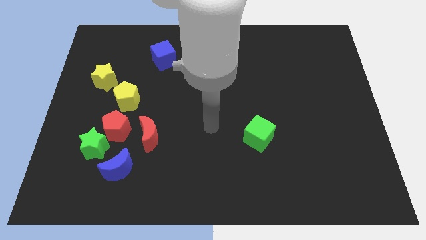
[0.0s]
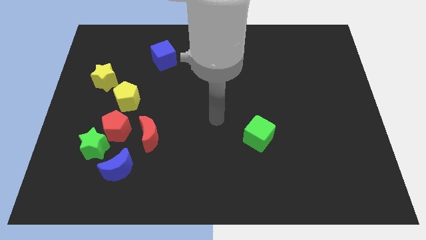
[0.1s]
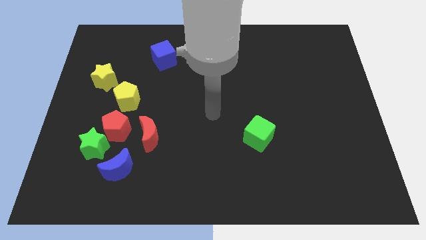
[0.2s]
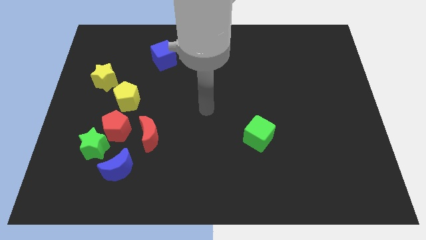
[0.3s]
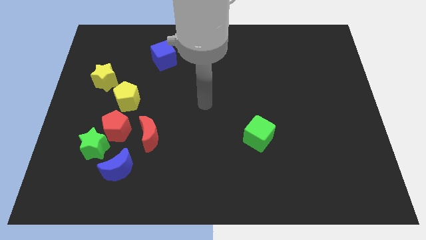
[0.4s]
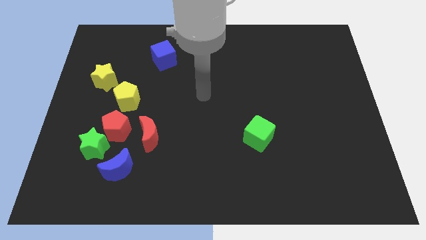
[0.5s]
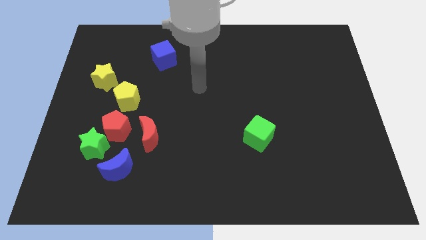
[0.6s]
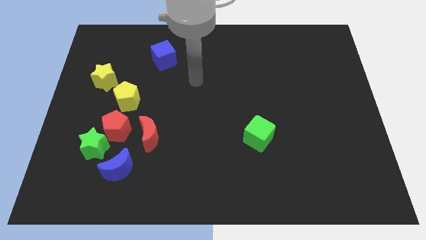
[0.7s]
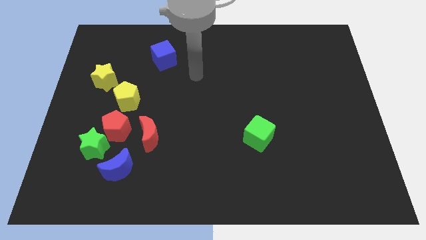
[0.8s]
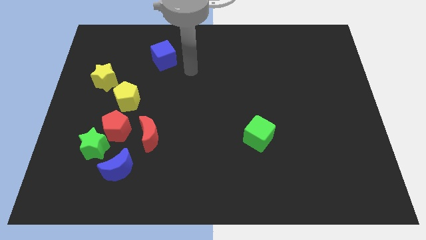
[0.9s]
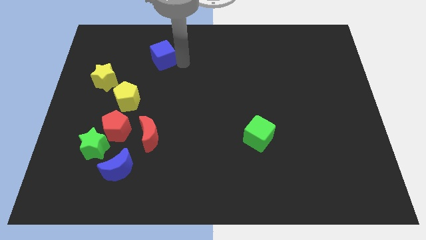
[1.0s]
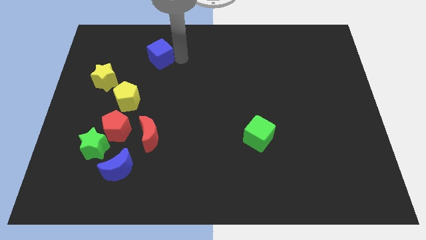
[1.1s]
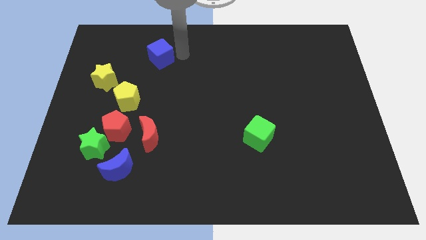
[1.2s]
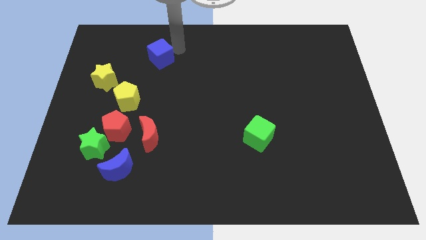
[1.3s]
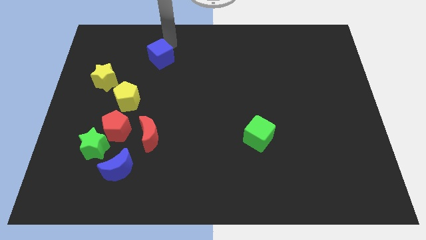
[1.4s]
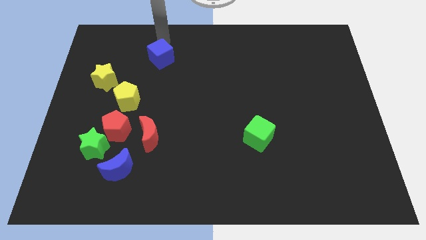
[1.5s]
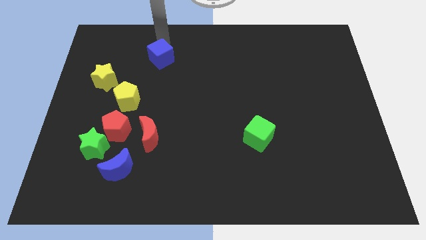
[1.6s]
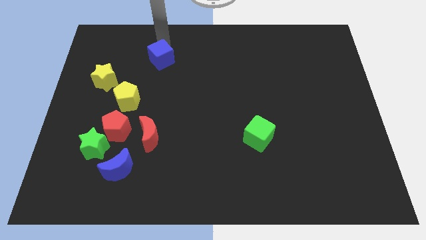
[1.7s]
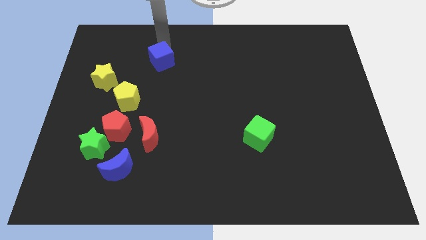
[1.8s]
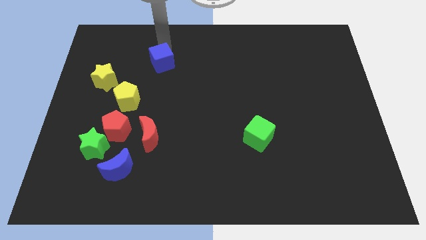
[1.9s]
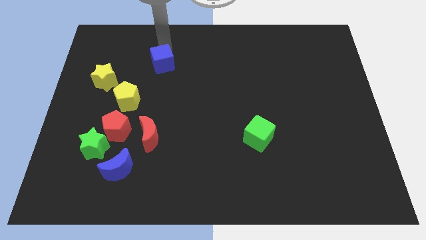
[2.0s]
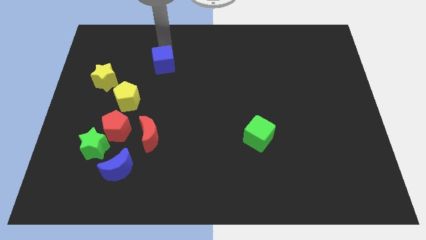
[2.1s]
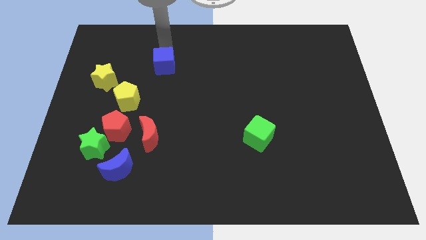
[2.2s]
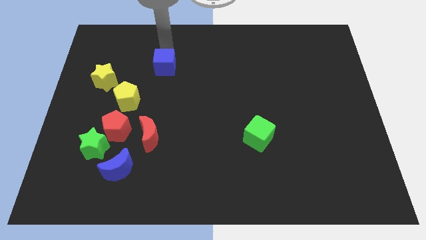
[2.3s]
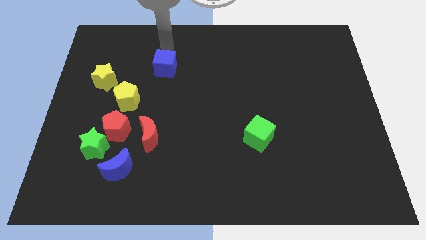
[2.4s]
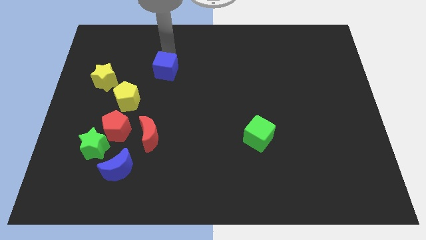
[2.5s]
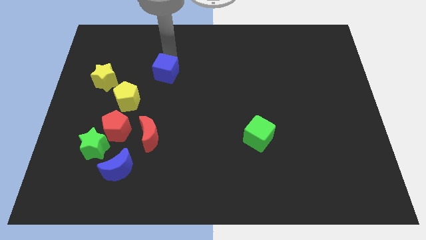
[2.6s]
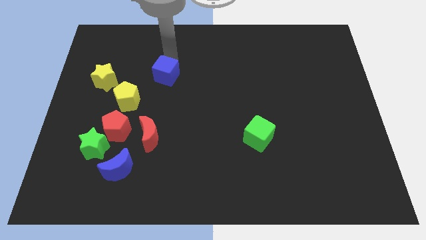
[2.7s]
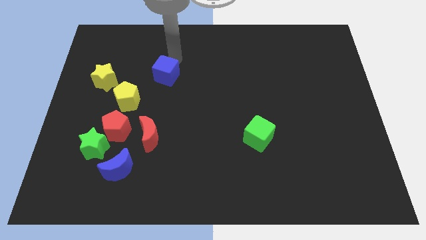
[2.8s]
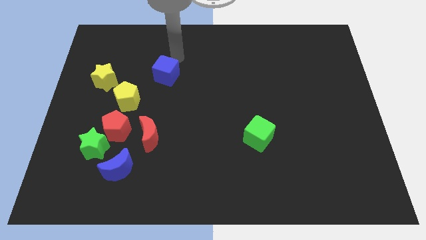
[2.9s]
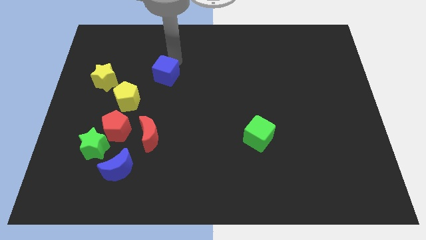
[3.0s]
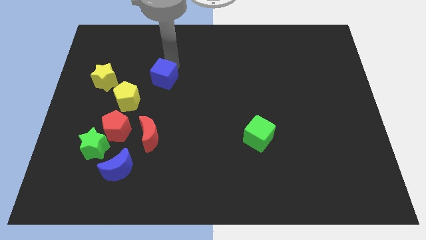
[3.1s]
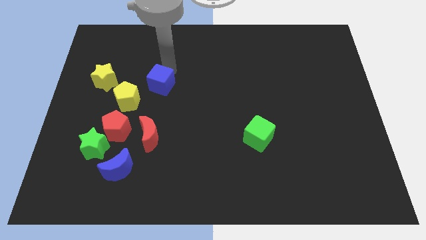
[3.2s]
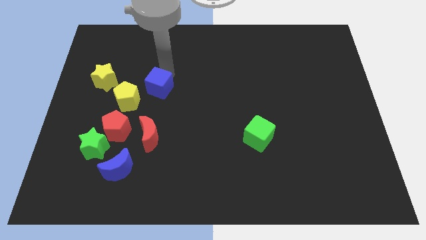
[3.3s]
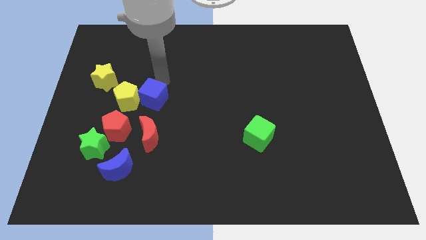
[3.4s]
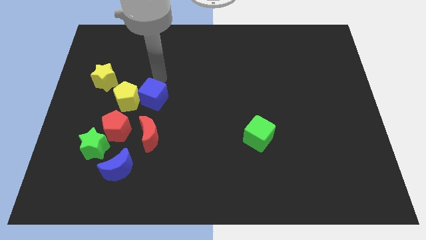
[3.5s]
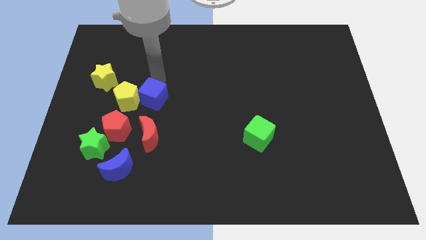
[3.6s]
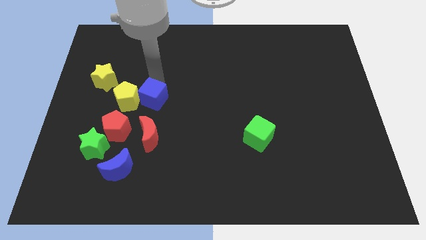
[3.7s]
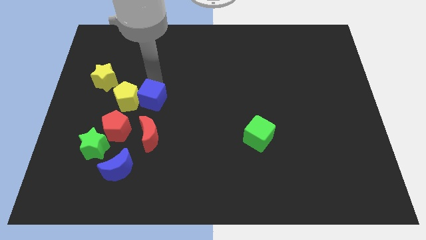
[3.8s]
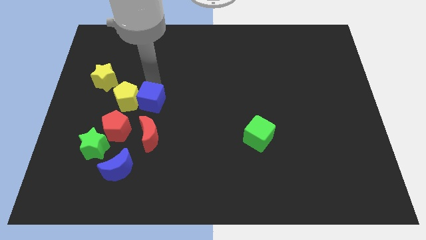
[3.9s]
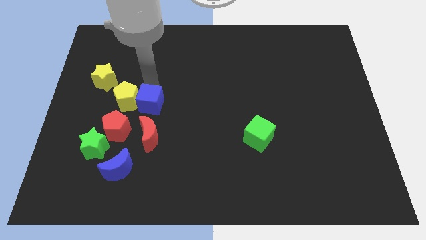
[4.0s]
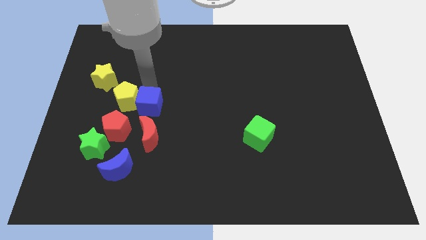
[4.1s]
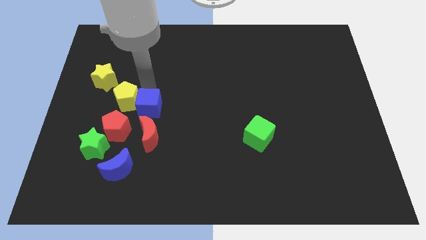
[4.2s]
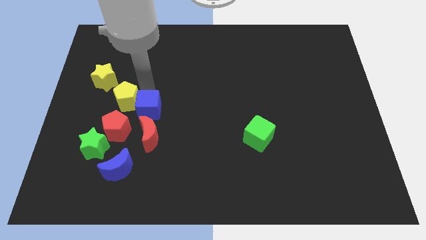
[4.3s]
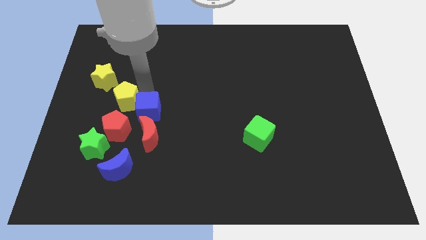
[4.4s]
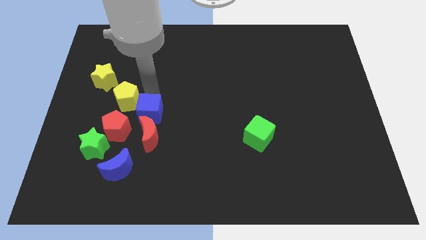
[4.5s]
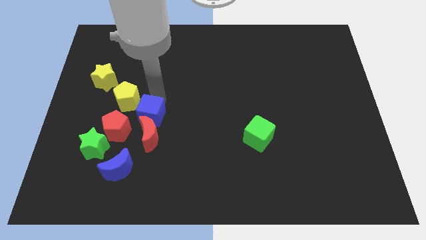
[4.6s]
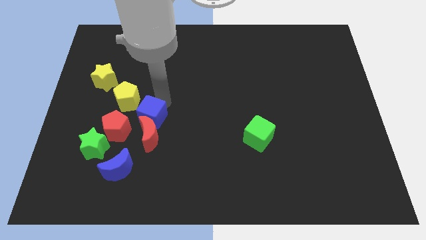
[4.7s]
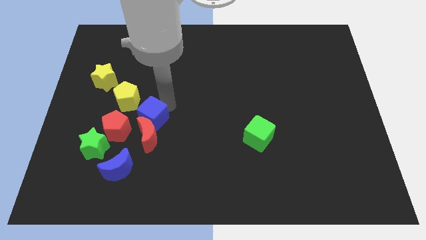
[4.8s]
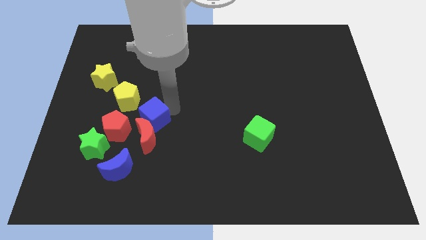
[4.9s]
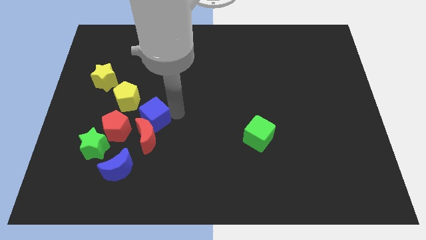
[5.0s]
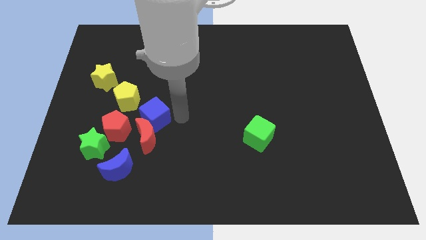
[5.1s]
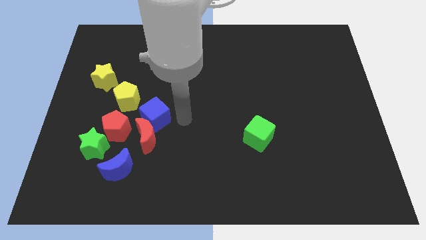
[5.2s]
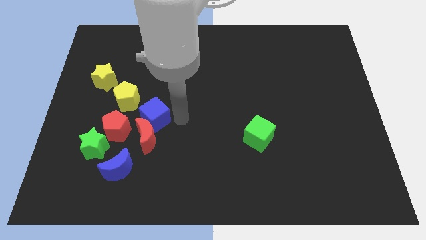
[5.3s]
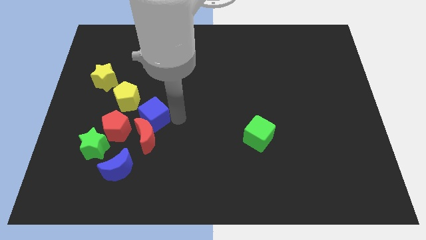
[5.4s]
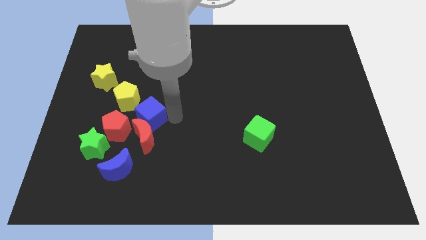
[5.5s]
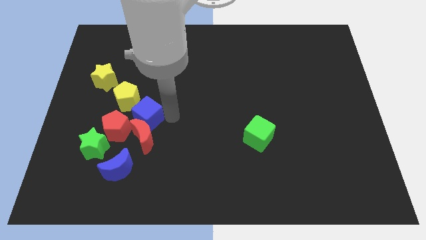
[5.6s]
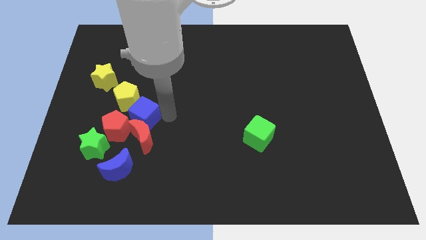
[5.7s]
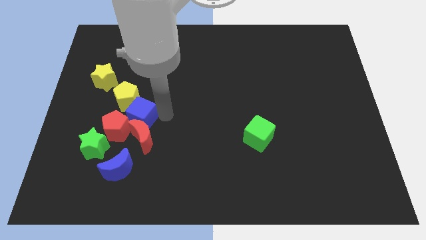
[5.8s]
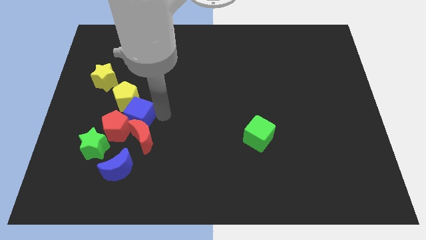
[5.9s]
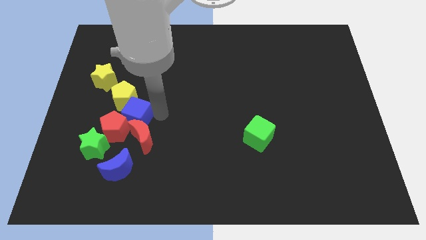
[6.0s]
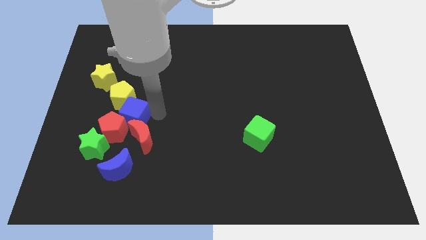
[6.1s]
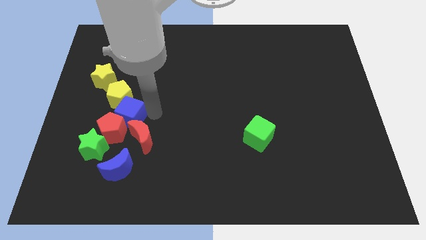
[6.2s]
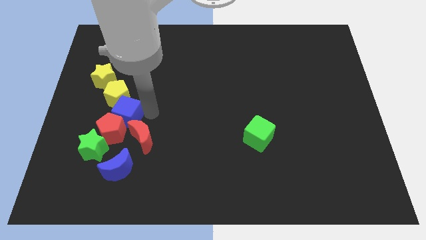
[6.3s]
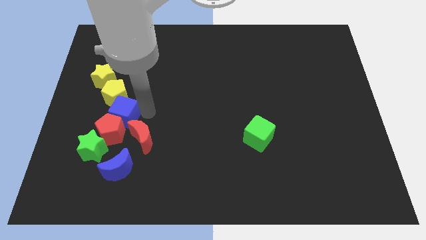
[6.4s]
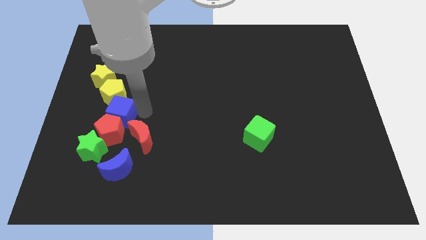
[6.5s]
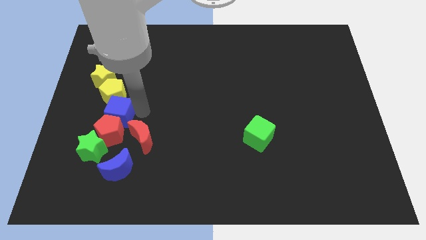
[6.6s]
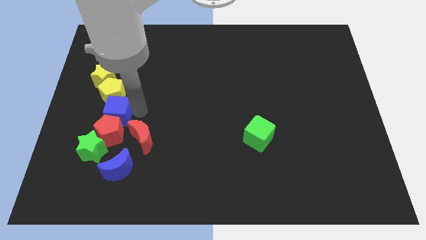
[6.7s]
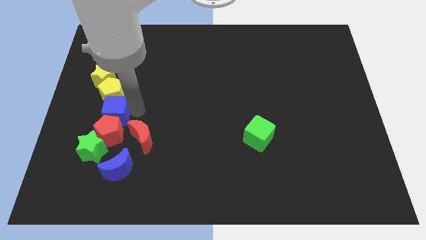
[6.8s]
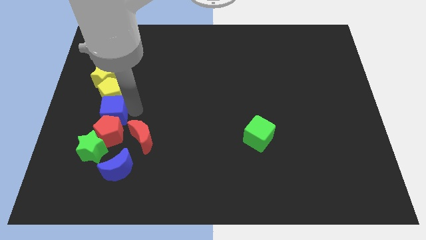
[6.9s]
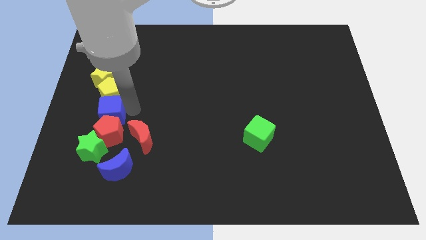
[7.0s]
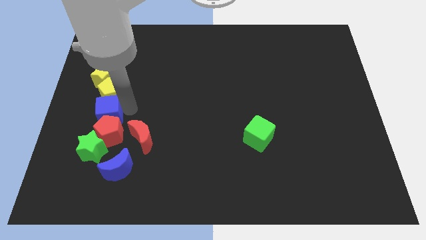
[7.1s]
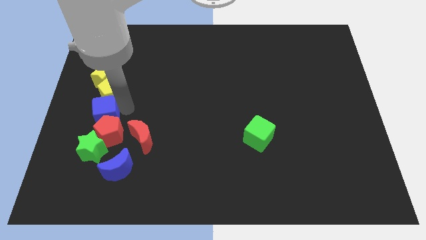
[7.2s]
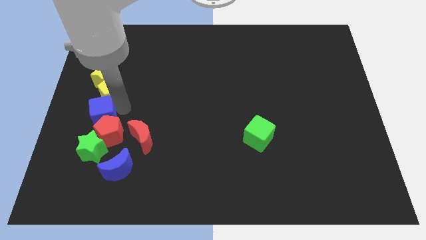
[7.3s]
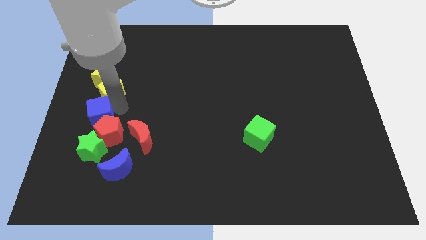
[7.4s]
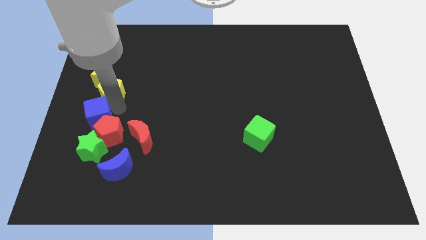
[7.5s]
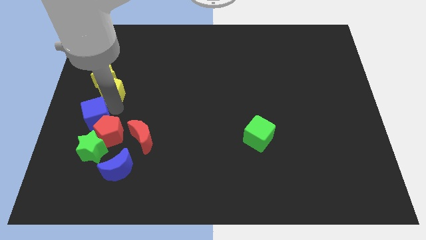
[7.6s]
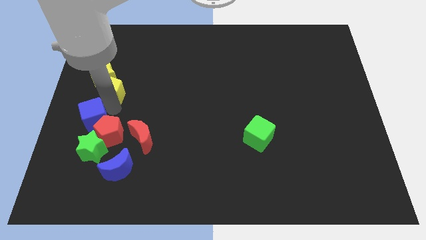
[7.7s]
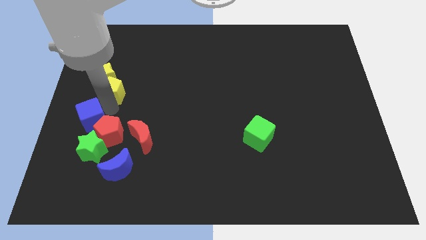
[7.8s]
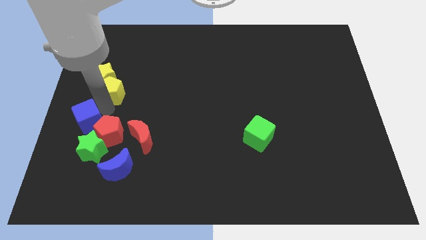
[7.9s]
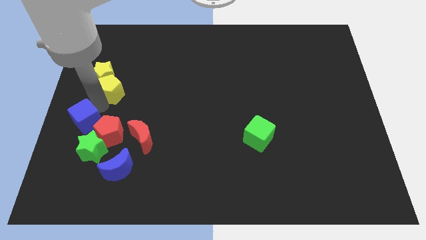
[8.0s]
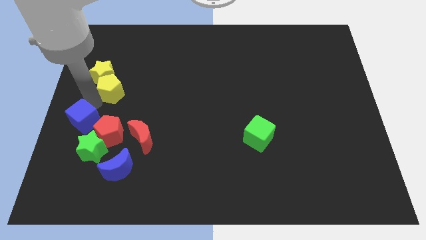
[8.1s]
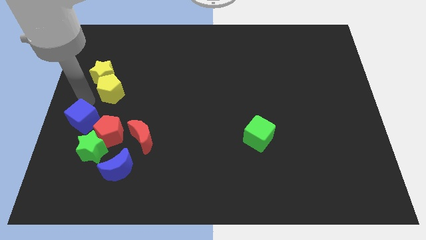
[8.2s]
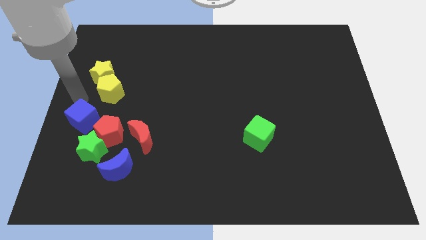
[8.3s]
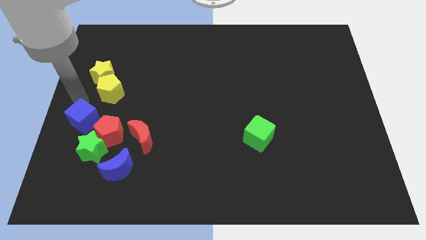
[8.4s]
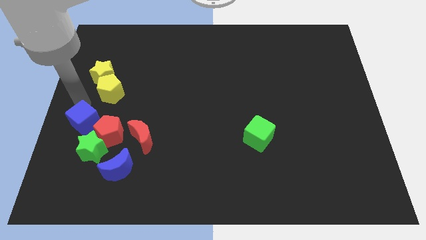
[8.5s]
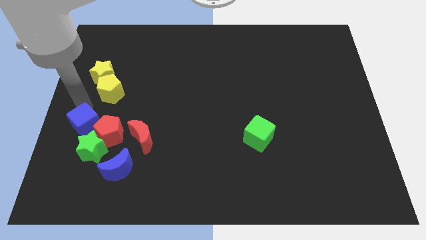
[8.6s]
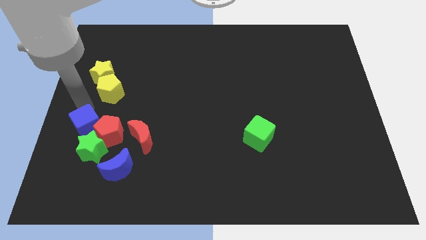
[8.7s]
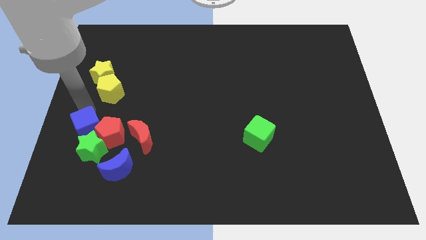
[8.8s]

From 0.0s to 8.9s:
put the blue cube towards the green star
